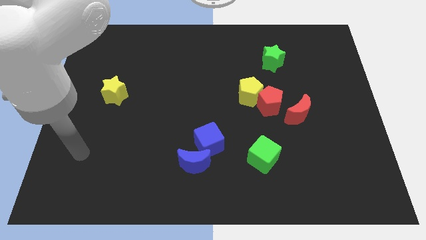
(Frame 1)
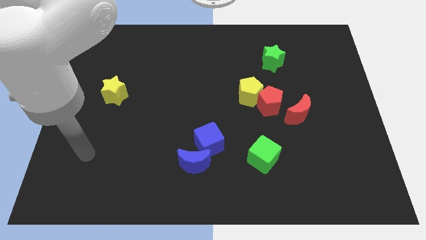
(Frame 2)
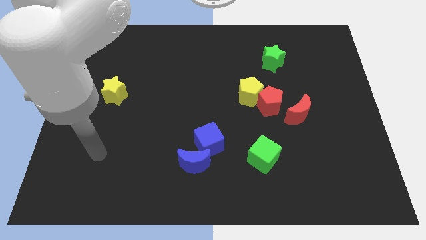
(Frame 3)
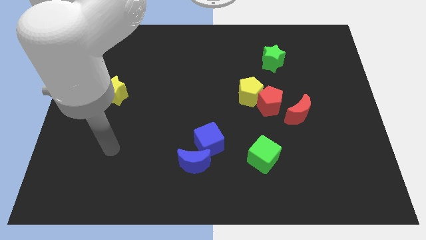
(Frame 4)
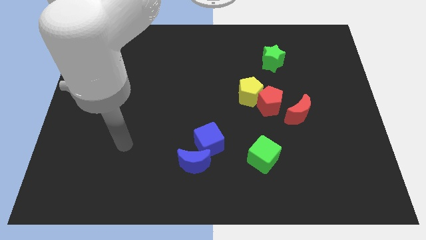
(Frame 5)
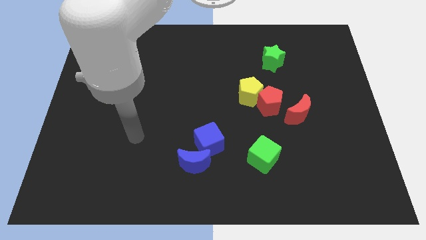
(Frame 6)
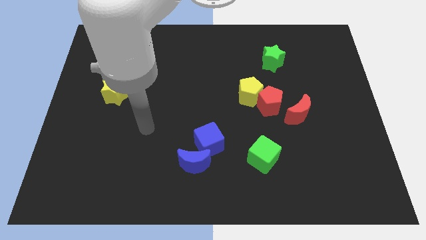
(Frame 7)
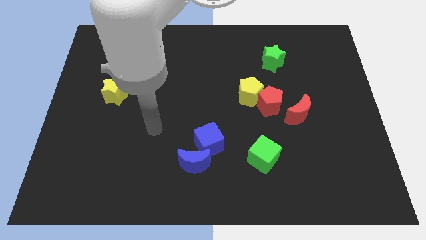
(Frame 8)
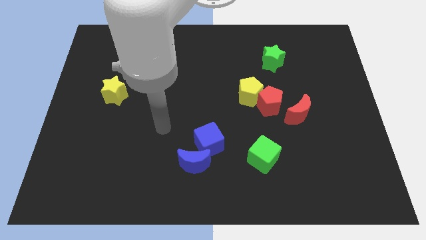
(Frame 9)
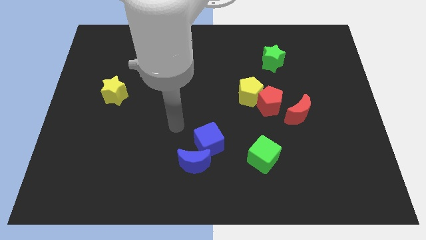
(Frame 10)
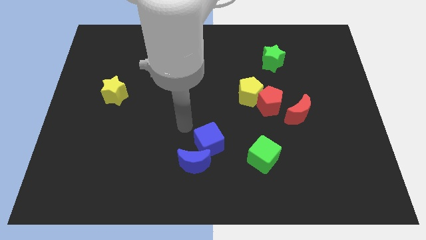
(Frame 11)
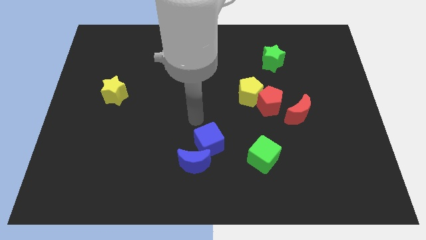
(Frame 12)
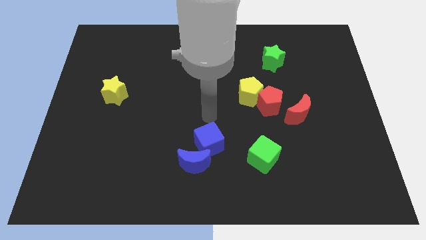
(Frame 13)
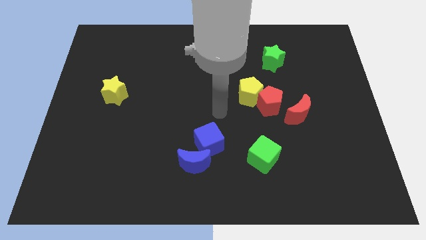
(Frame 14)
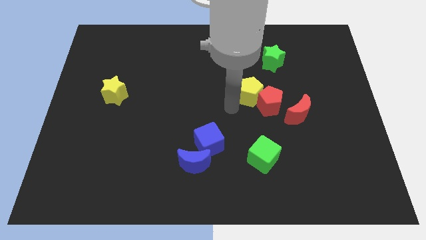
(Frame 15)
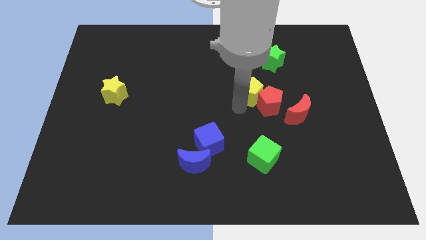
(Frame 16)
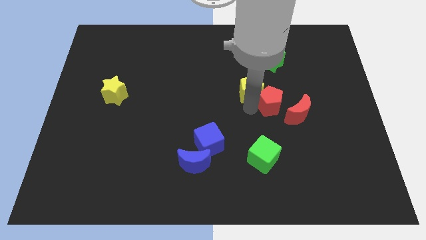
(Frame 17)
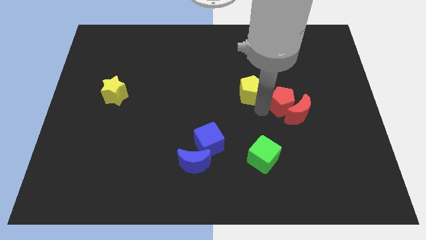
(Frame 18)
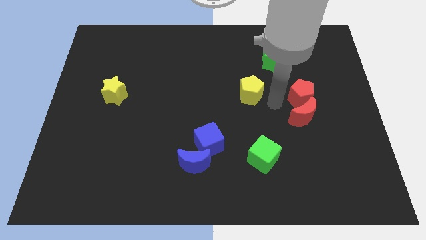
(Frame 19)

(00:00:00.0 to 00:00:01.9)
pull the yellow pentagon apart from the red pentagon

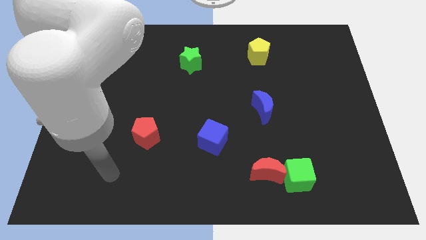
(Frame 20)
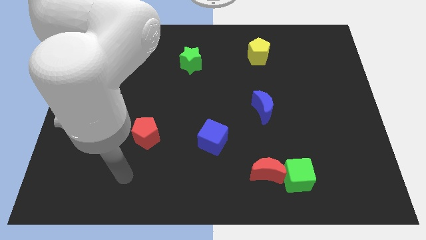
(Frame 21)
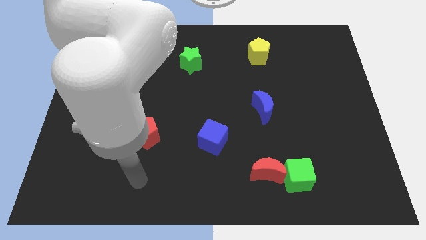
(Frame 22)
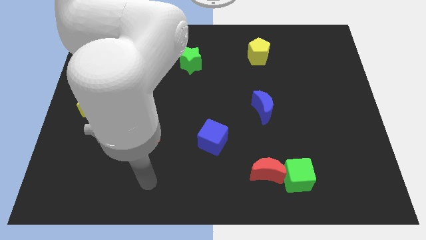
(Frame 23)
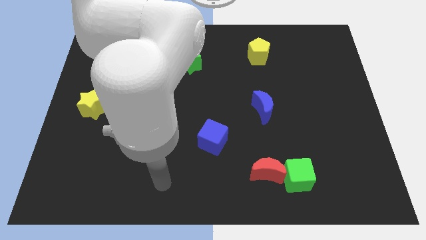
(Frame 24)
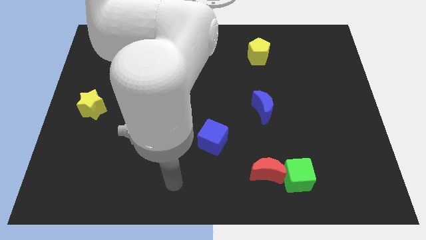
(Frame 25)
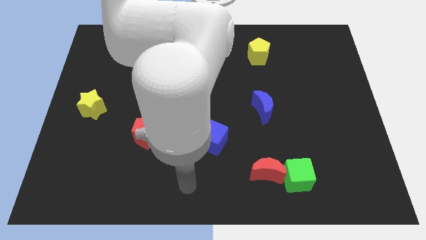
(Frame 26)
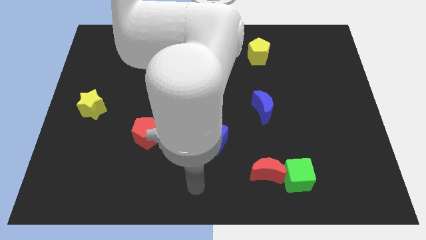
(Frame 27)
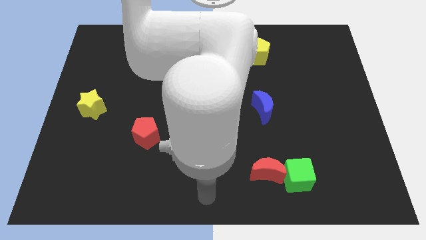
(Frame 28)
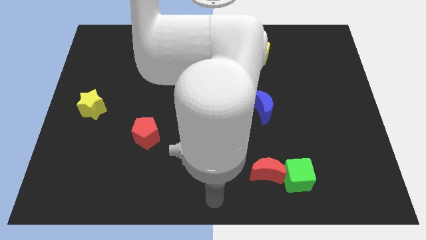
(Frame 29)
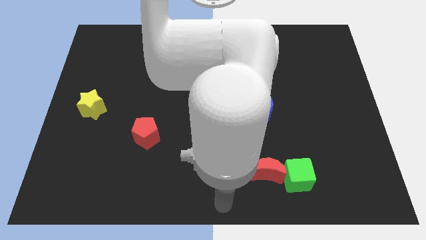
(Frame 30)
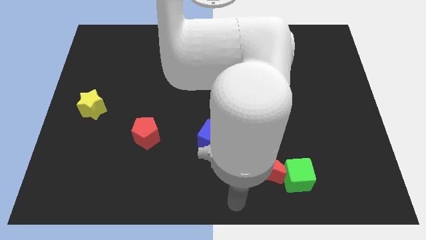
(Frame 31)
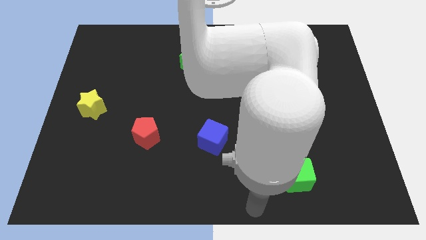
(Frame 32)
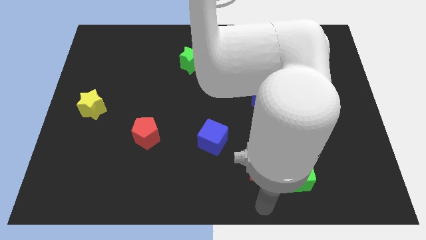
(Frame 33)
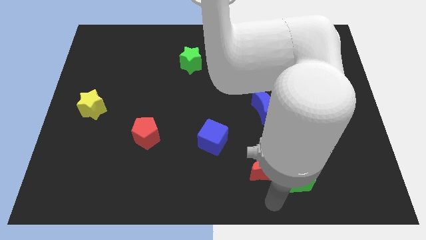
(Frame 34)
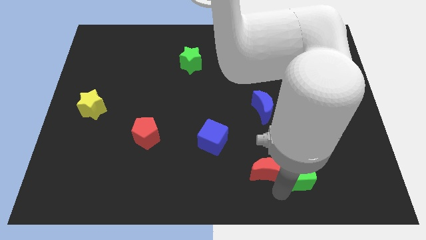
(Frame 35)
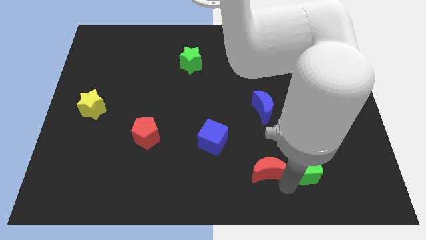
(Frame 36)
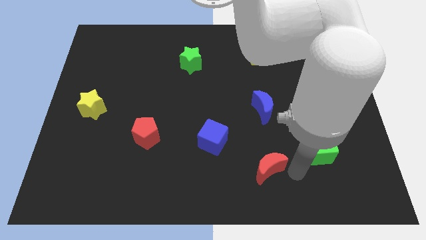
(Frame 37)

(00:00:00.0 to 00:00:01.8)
move the red moon away from the green cube

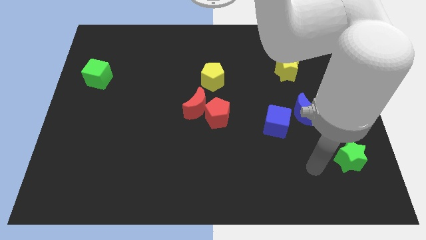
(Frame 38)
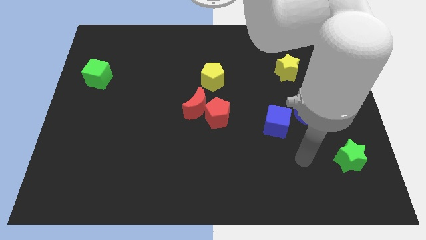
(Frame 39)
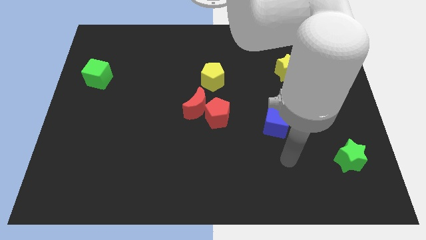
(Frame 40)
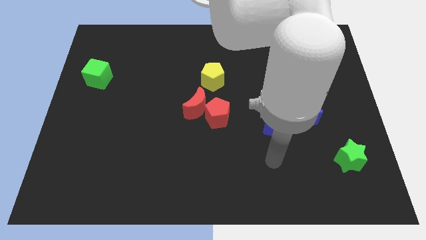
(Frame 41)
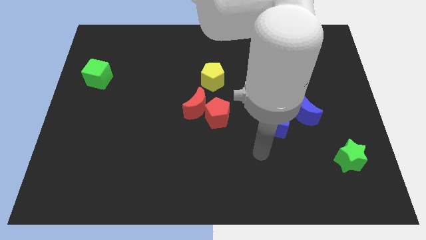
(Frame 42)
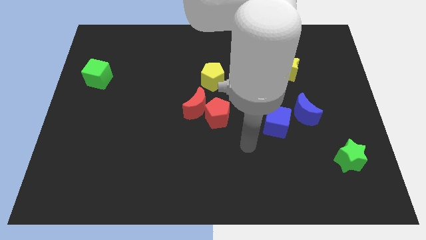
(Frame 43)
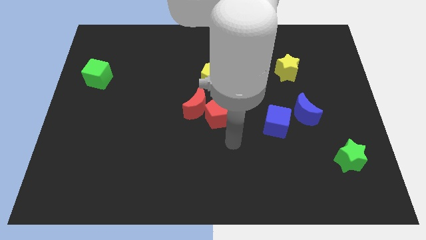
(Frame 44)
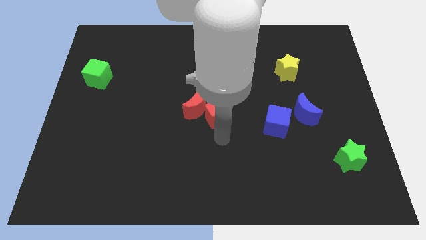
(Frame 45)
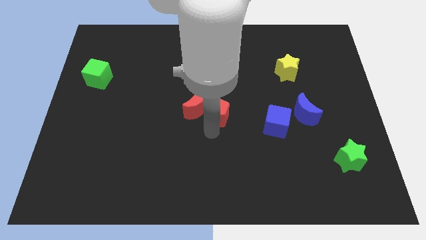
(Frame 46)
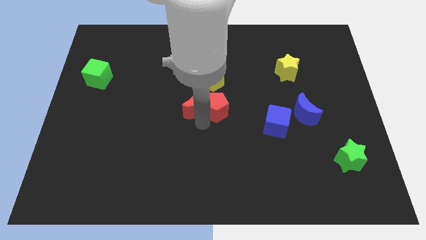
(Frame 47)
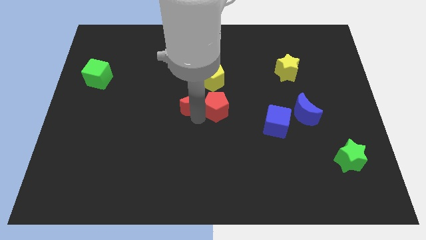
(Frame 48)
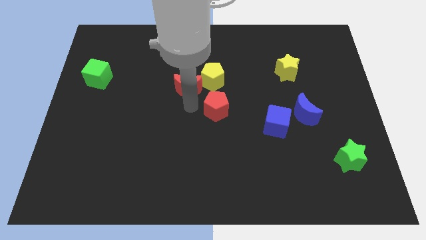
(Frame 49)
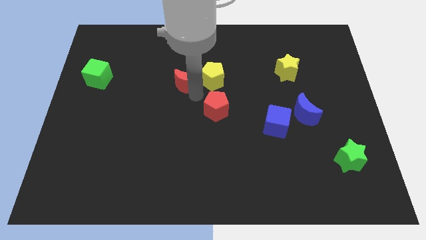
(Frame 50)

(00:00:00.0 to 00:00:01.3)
pull the red pentagon apart from the red moon

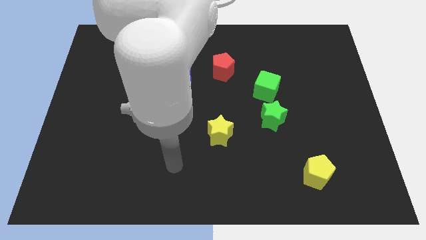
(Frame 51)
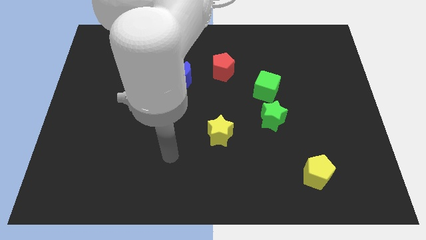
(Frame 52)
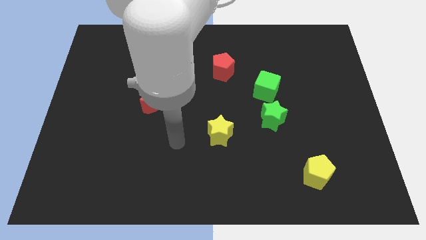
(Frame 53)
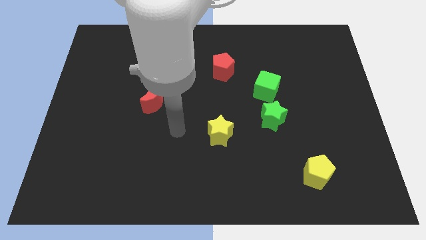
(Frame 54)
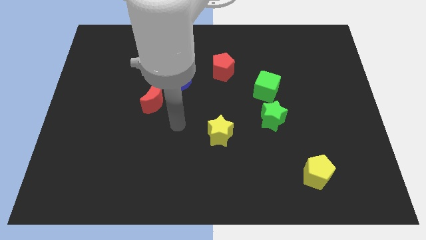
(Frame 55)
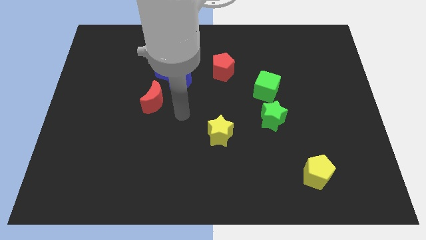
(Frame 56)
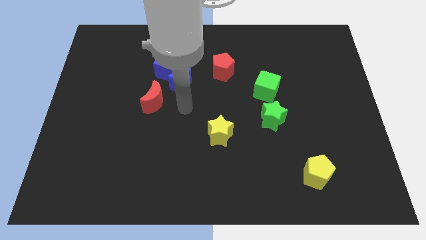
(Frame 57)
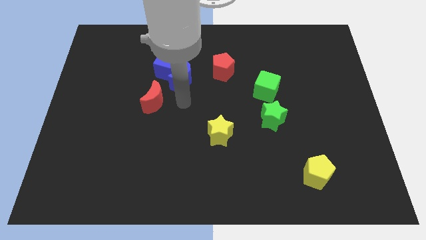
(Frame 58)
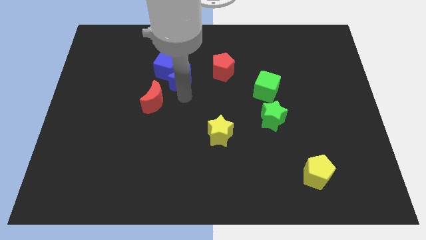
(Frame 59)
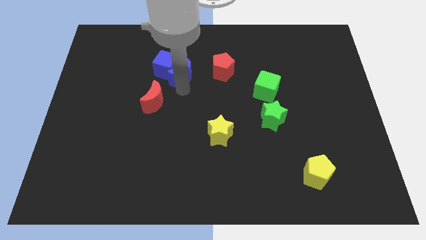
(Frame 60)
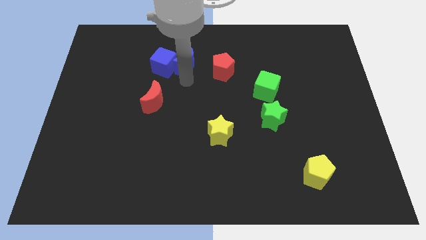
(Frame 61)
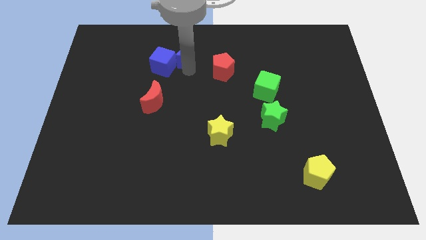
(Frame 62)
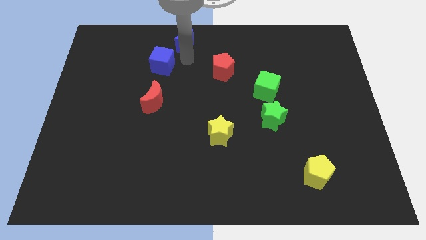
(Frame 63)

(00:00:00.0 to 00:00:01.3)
separate the blue cube from the blue moon

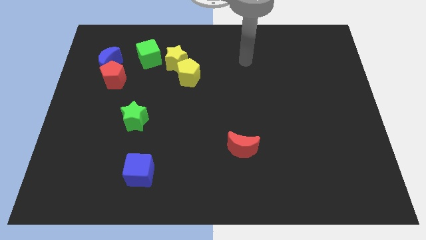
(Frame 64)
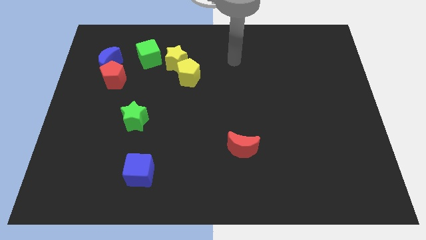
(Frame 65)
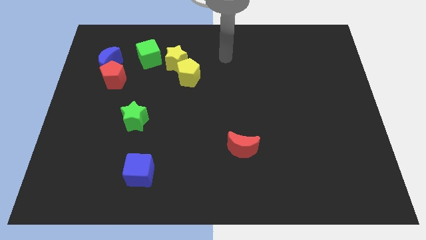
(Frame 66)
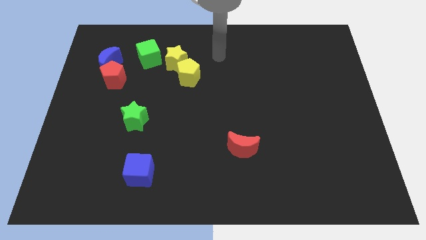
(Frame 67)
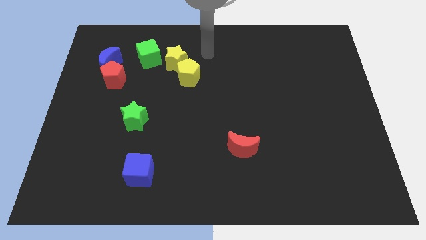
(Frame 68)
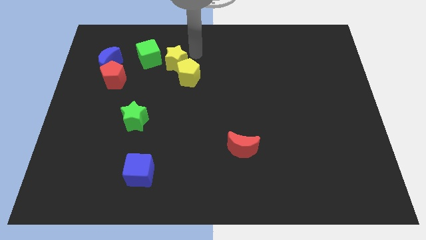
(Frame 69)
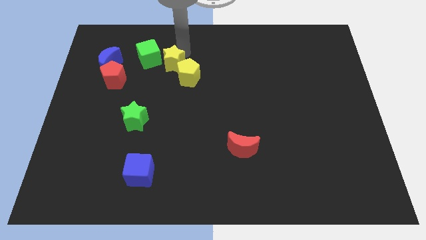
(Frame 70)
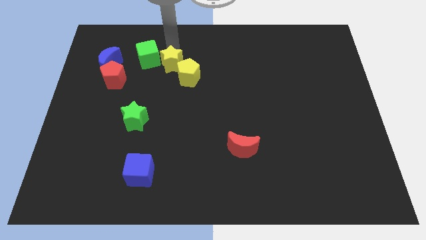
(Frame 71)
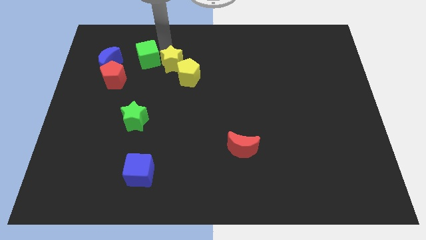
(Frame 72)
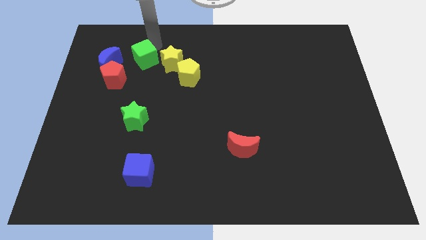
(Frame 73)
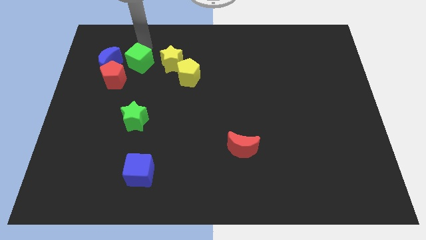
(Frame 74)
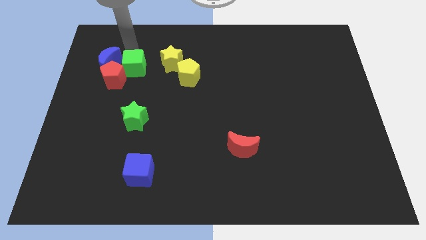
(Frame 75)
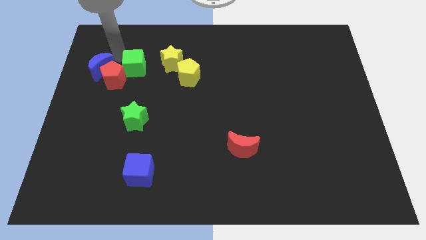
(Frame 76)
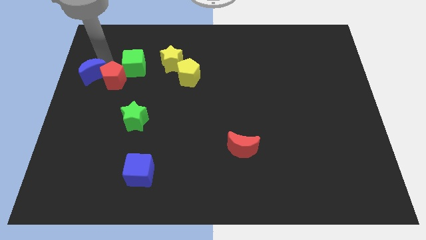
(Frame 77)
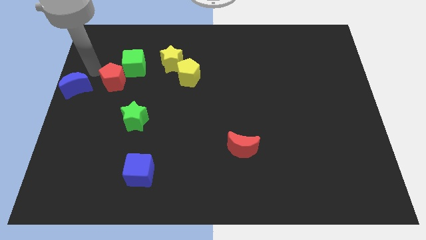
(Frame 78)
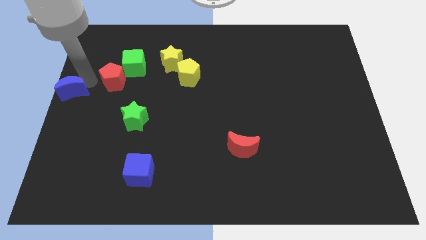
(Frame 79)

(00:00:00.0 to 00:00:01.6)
move the red pentagon away from the blue moon

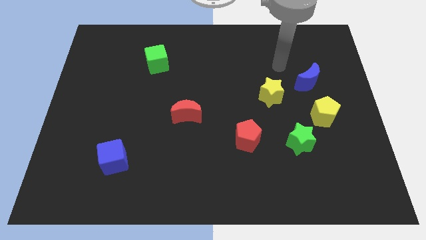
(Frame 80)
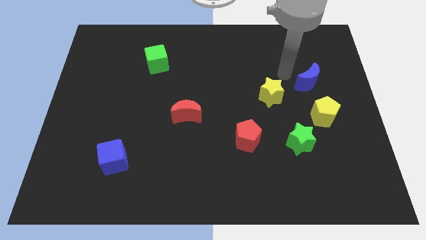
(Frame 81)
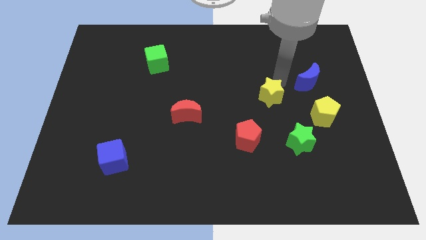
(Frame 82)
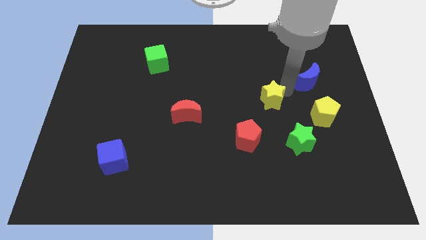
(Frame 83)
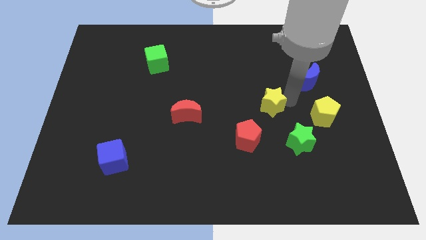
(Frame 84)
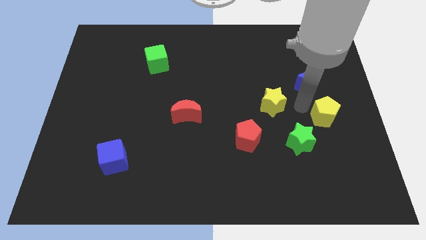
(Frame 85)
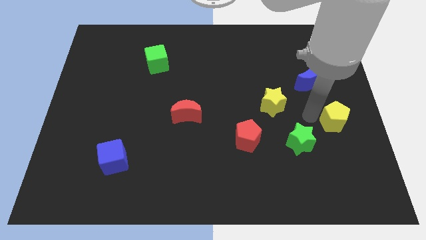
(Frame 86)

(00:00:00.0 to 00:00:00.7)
separate the green star from the yellow pentagon

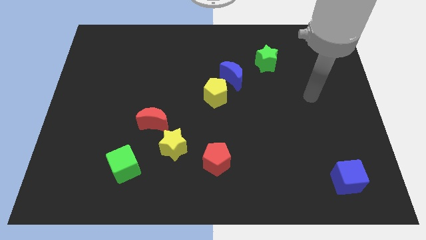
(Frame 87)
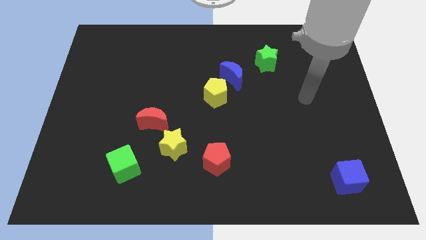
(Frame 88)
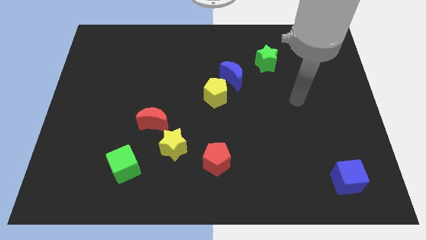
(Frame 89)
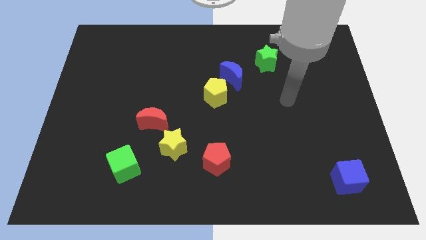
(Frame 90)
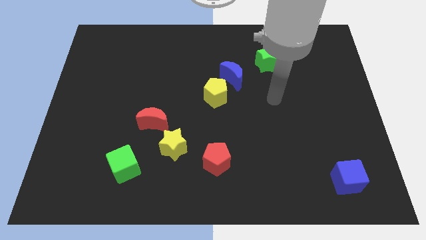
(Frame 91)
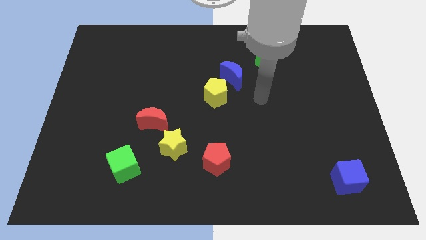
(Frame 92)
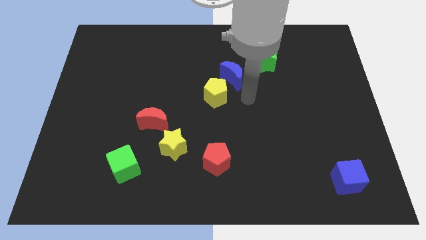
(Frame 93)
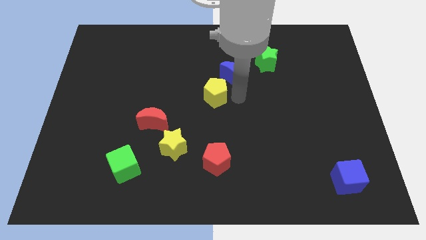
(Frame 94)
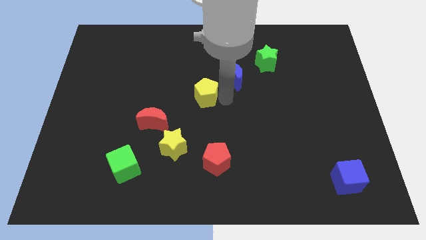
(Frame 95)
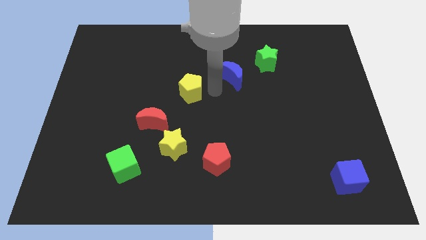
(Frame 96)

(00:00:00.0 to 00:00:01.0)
move the blue moon away from the yellow pentagon
